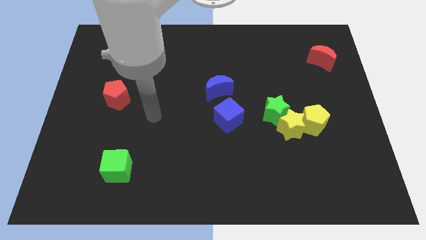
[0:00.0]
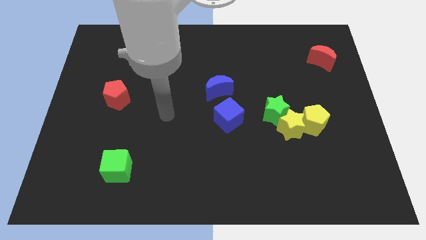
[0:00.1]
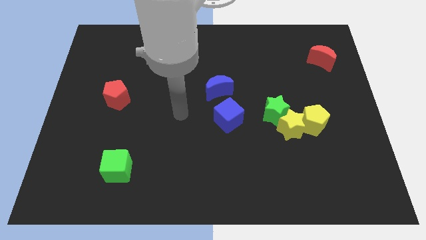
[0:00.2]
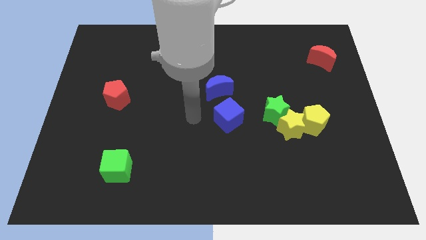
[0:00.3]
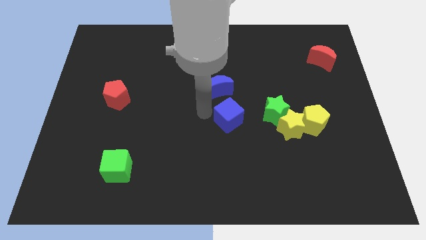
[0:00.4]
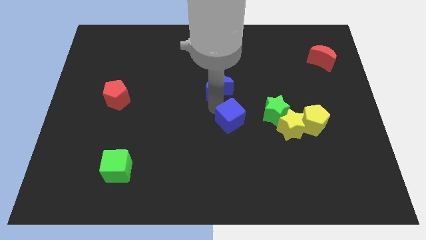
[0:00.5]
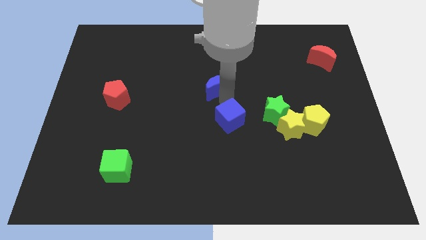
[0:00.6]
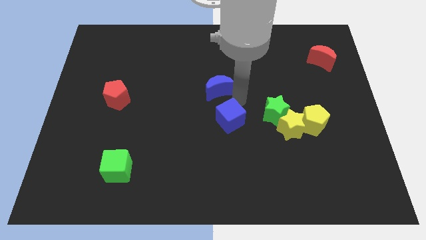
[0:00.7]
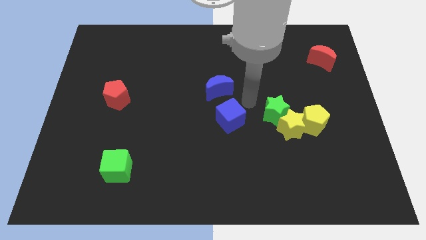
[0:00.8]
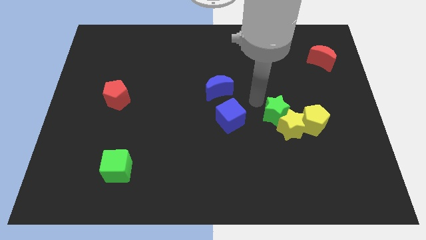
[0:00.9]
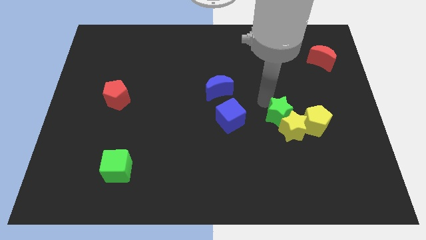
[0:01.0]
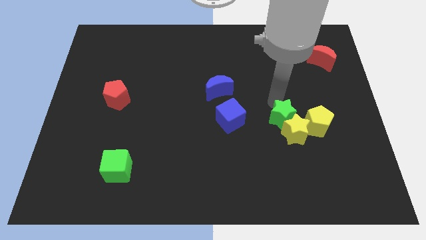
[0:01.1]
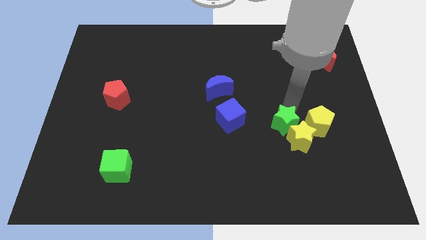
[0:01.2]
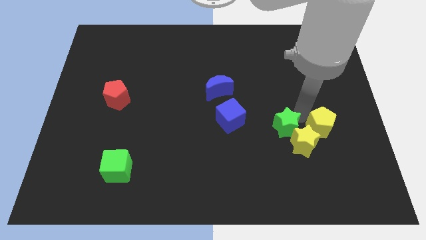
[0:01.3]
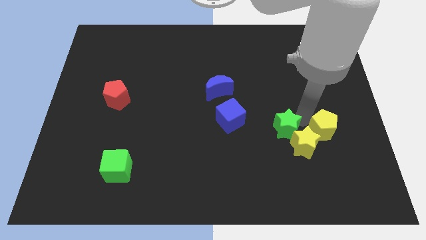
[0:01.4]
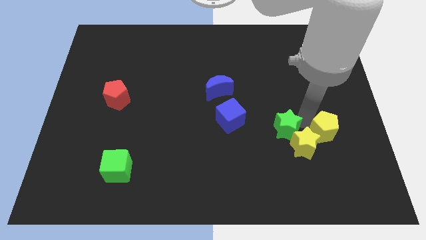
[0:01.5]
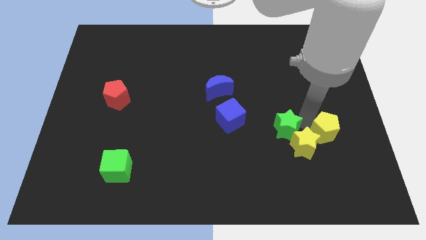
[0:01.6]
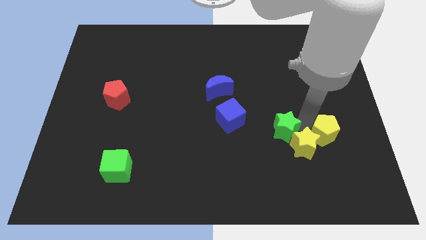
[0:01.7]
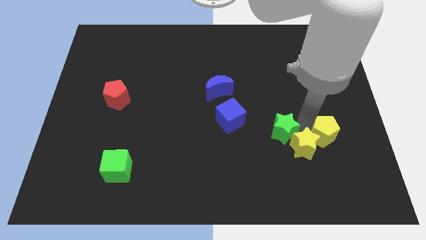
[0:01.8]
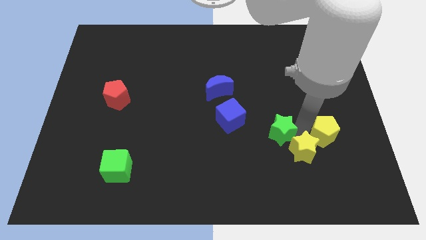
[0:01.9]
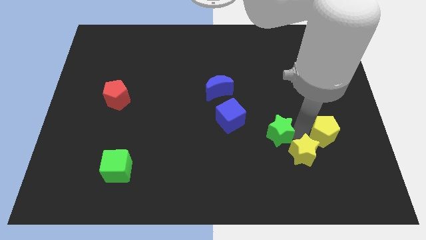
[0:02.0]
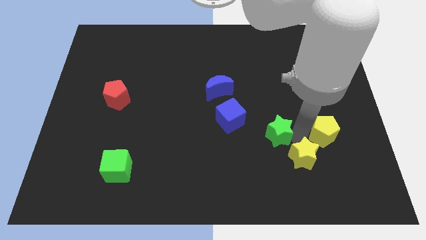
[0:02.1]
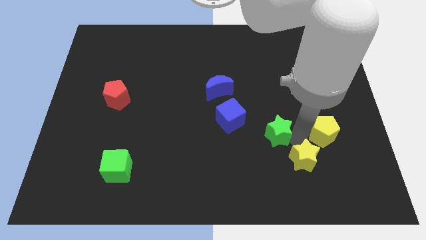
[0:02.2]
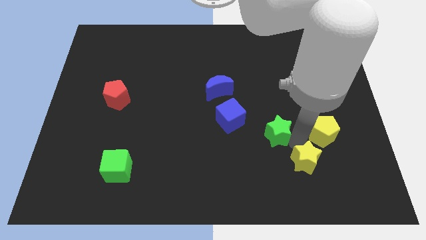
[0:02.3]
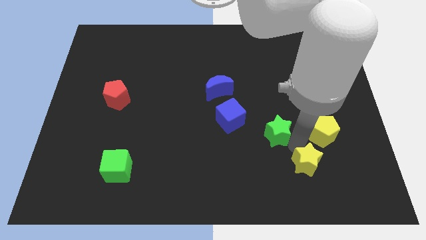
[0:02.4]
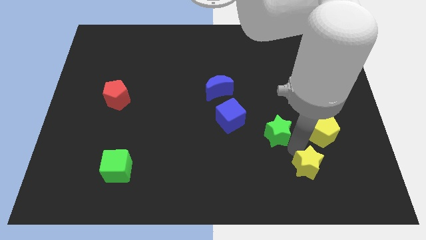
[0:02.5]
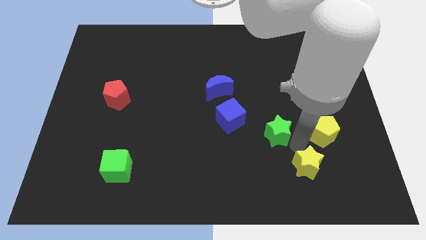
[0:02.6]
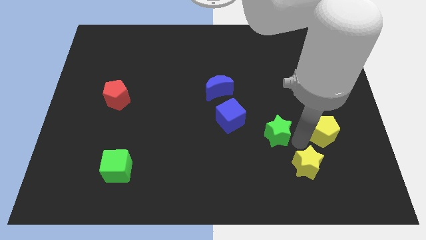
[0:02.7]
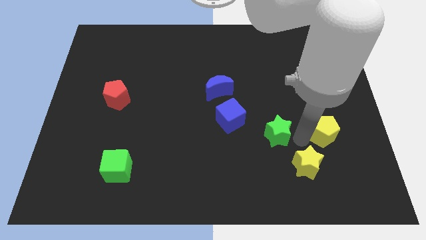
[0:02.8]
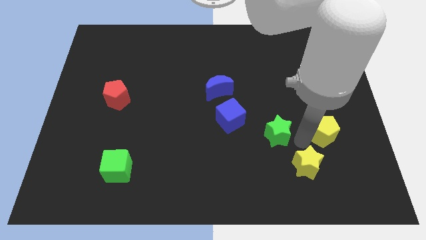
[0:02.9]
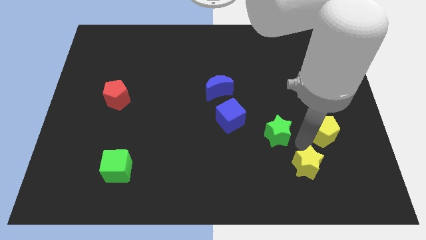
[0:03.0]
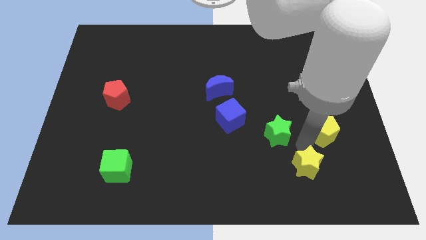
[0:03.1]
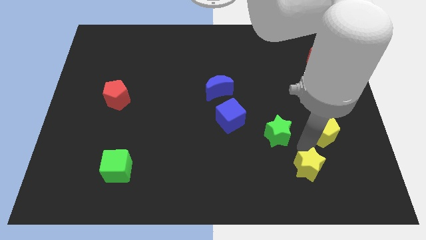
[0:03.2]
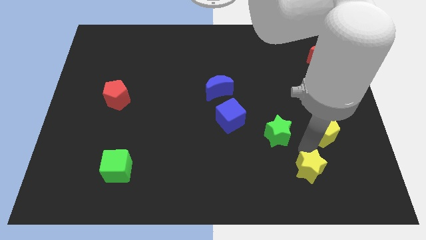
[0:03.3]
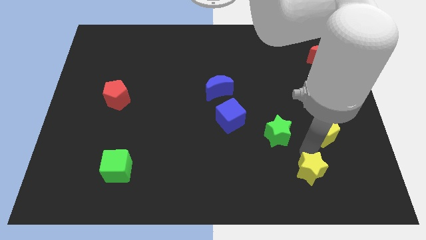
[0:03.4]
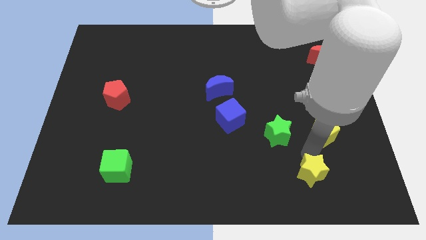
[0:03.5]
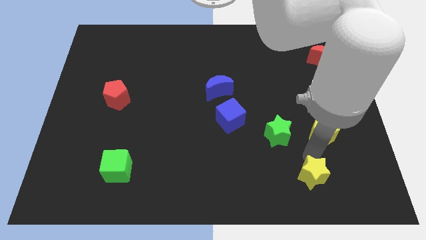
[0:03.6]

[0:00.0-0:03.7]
move the yellow star away from the yellow pentagon and green star

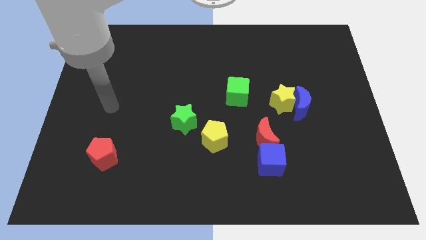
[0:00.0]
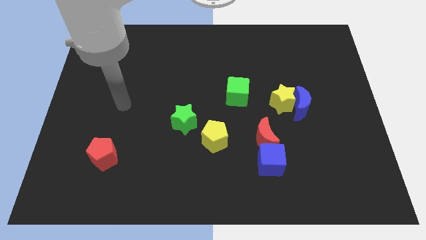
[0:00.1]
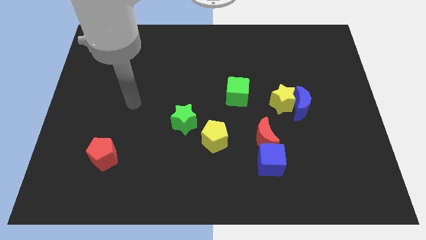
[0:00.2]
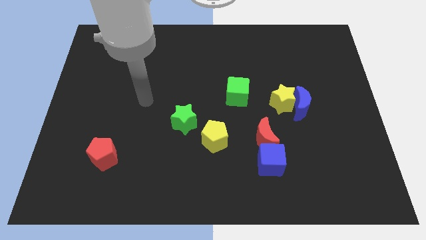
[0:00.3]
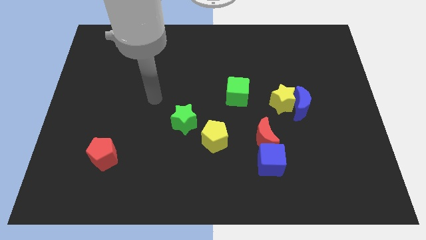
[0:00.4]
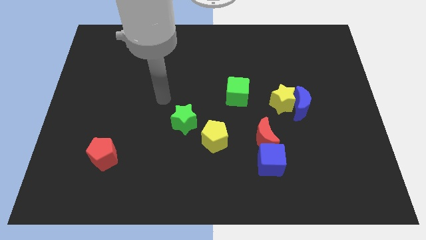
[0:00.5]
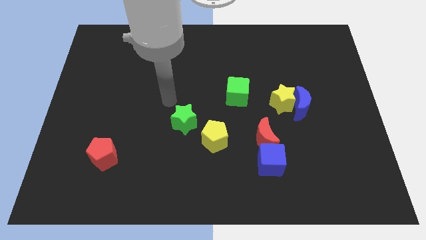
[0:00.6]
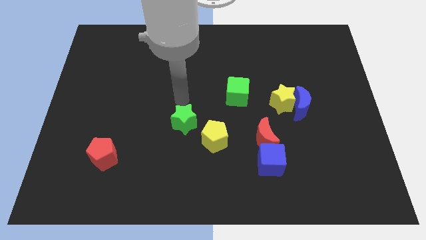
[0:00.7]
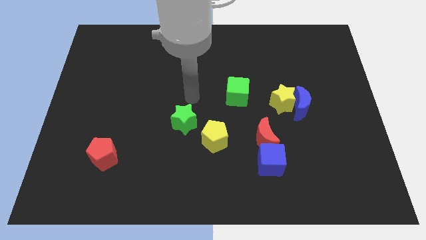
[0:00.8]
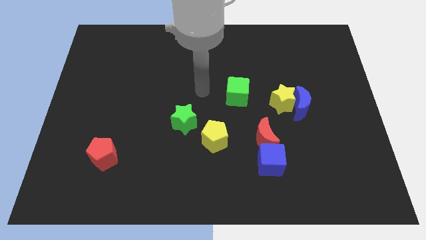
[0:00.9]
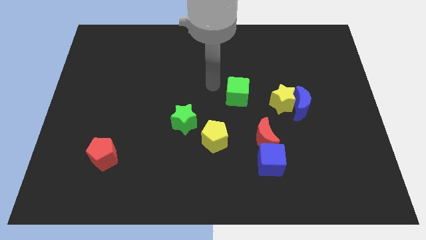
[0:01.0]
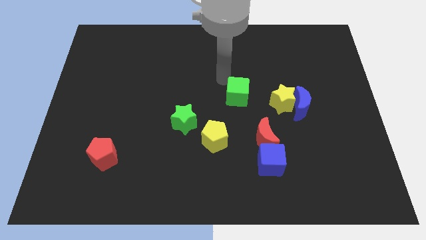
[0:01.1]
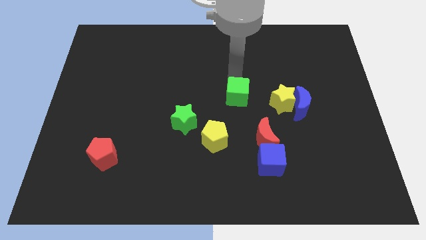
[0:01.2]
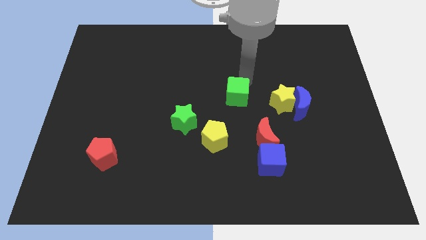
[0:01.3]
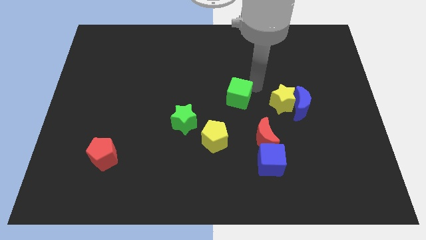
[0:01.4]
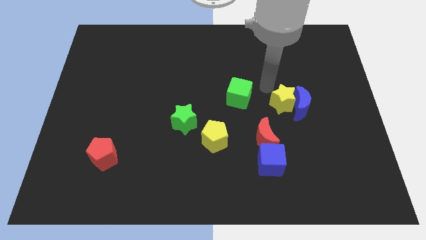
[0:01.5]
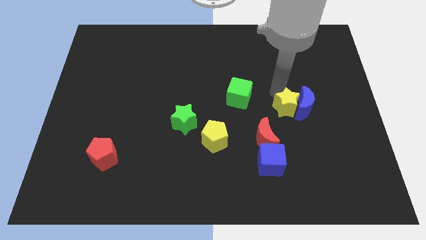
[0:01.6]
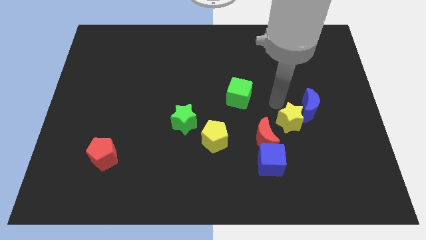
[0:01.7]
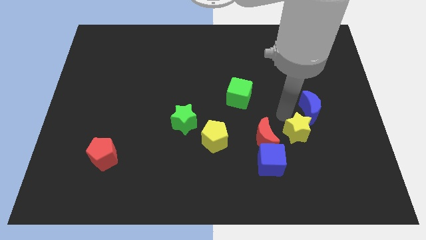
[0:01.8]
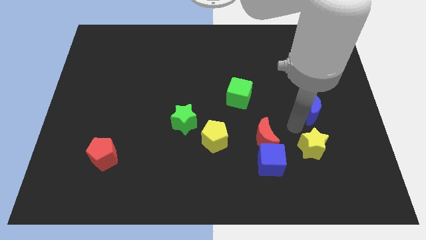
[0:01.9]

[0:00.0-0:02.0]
pull the blue moon apart from the yellow star

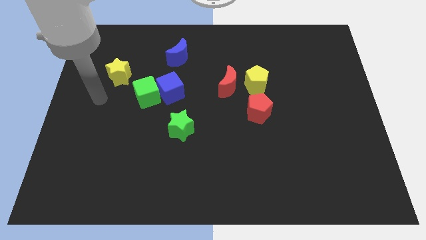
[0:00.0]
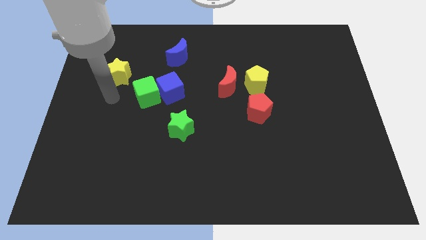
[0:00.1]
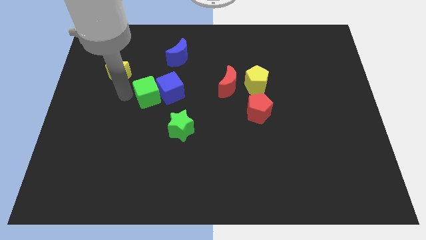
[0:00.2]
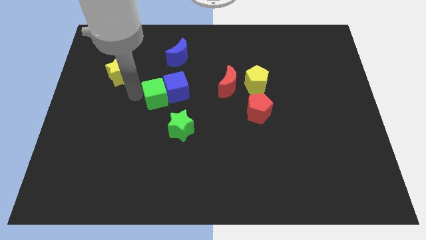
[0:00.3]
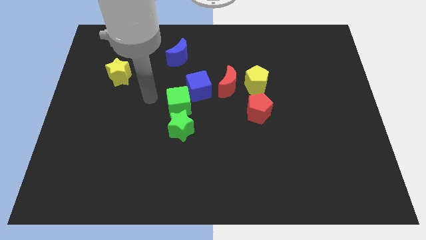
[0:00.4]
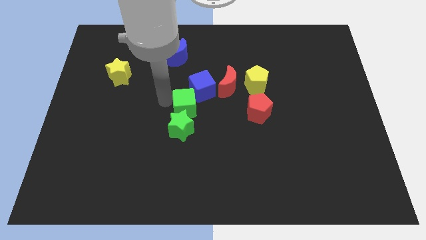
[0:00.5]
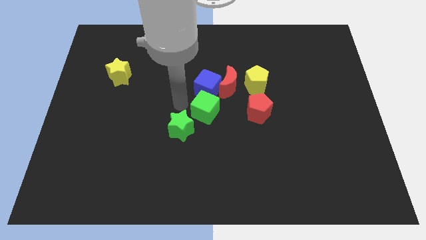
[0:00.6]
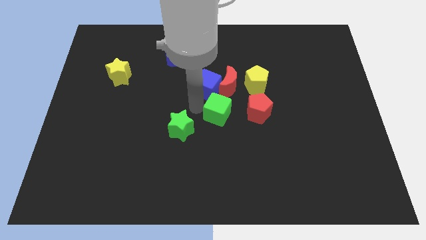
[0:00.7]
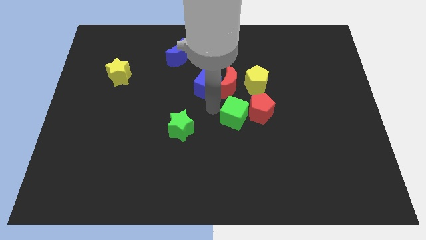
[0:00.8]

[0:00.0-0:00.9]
move the blue cube away from the green cube

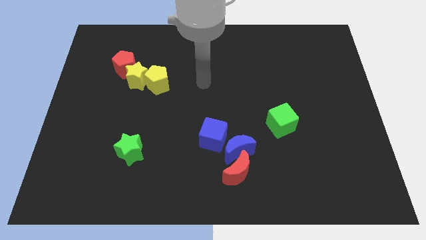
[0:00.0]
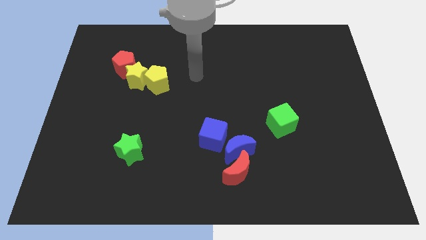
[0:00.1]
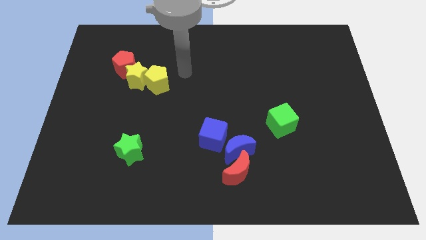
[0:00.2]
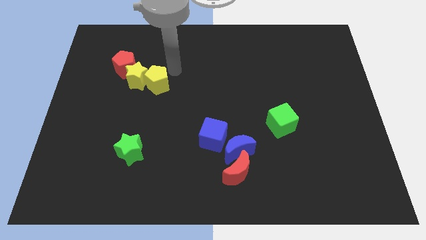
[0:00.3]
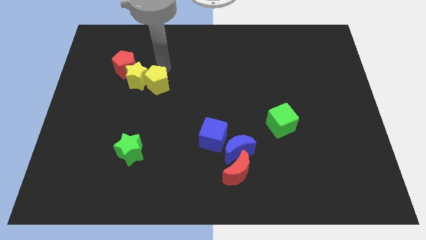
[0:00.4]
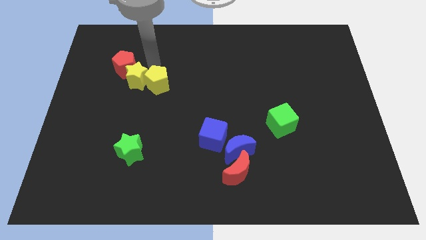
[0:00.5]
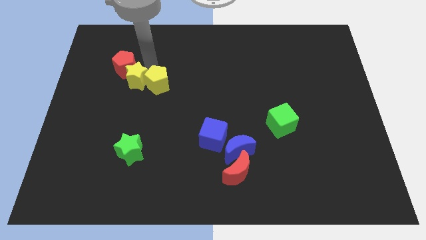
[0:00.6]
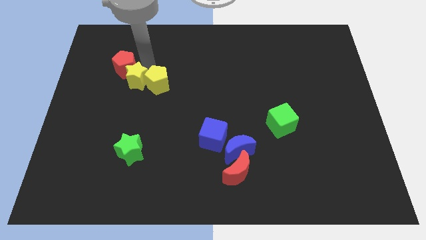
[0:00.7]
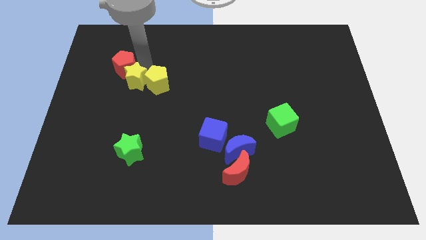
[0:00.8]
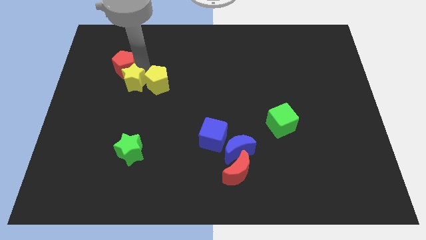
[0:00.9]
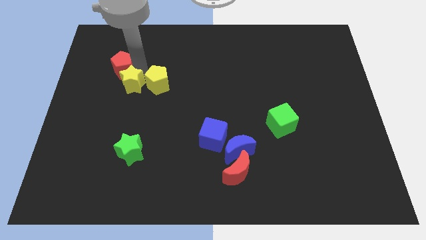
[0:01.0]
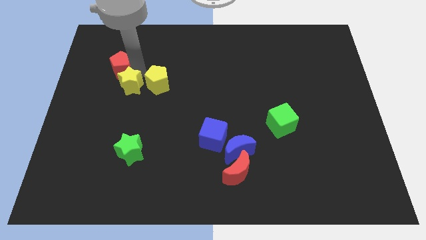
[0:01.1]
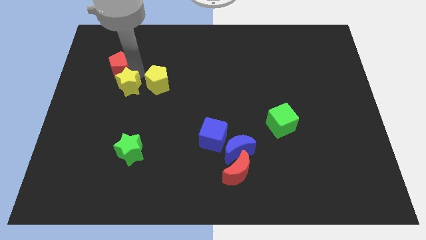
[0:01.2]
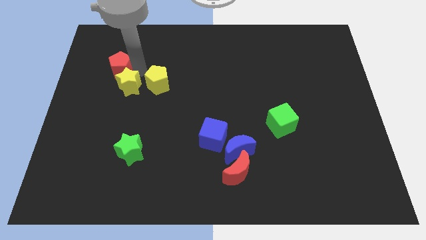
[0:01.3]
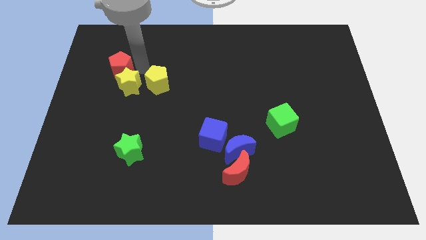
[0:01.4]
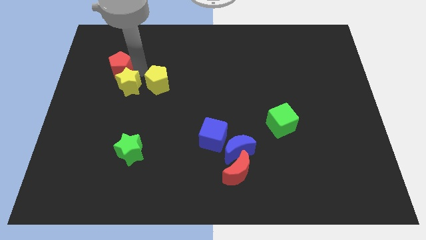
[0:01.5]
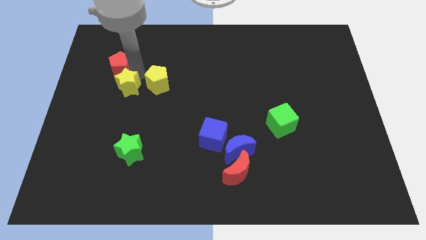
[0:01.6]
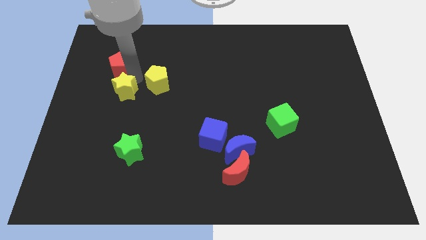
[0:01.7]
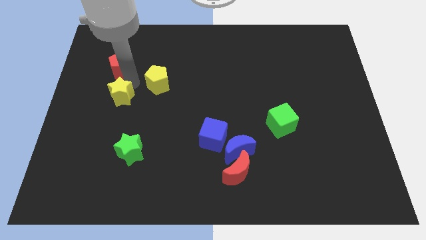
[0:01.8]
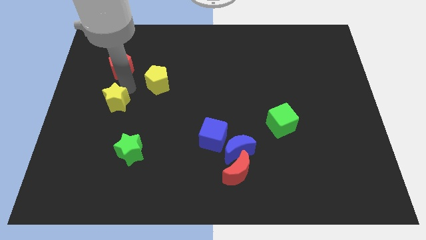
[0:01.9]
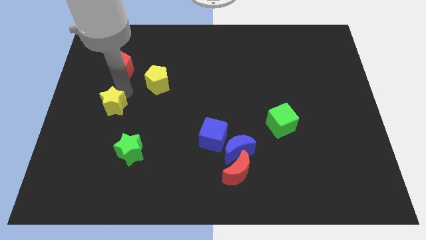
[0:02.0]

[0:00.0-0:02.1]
move the yellow star away from the yellow pentagon and red pentagon

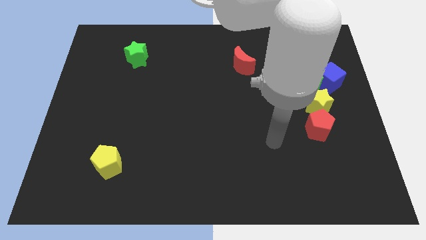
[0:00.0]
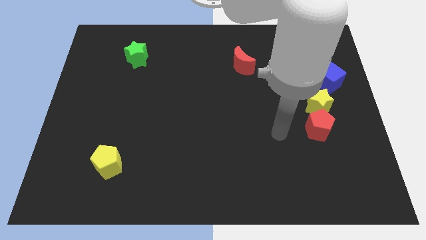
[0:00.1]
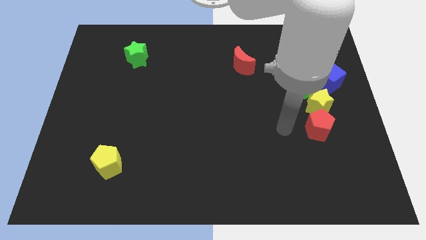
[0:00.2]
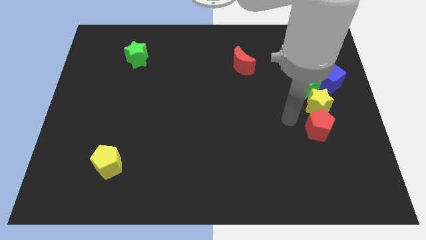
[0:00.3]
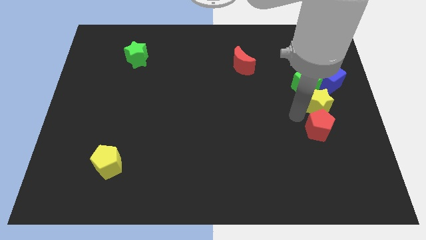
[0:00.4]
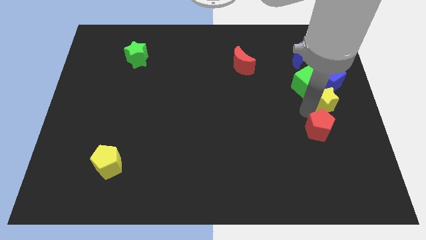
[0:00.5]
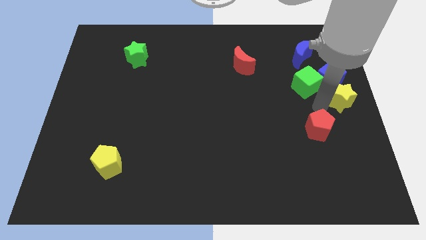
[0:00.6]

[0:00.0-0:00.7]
pull the red pentagon apart from the yellow star
